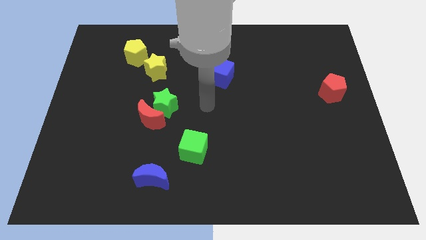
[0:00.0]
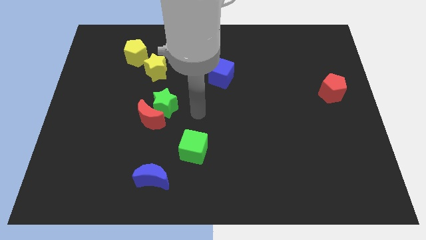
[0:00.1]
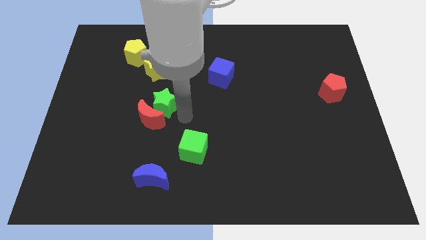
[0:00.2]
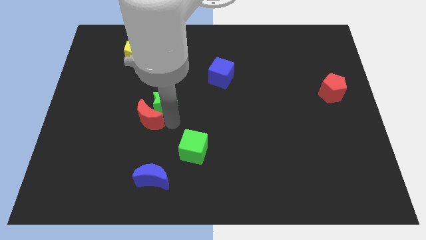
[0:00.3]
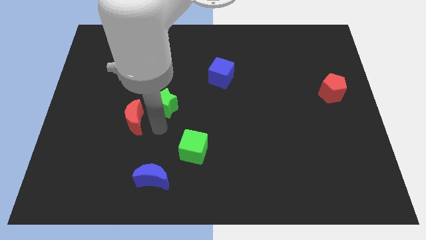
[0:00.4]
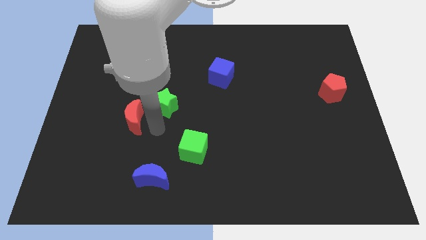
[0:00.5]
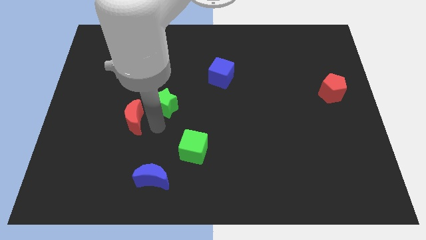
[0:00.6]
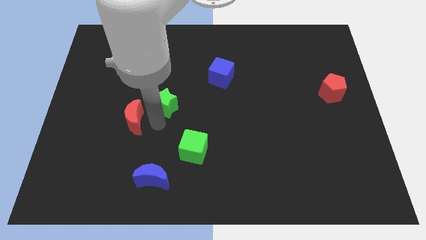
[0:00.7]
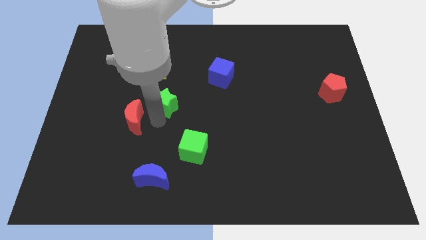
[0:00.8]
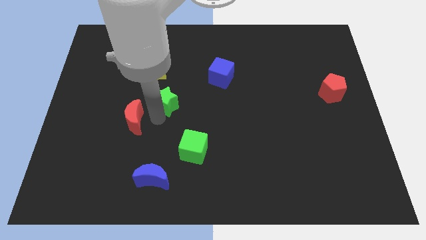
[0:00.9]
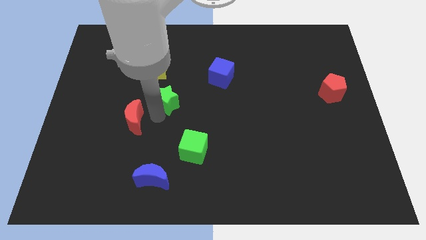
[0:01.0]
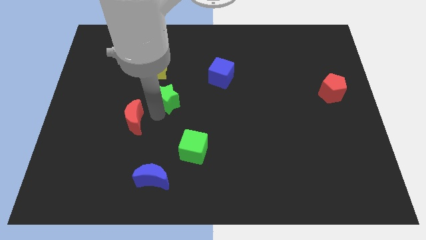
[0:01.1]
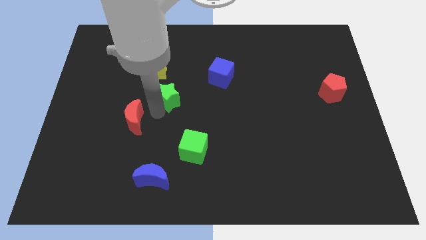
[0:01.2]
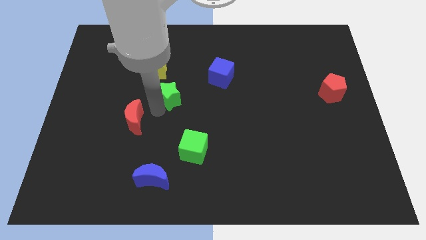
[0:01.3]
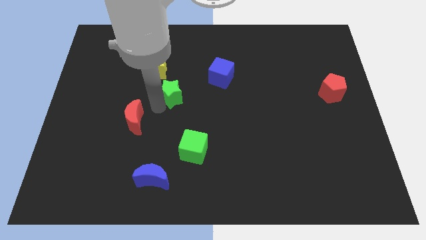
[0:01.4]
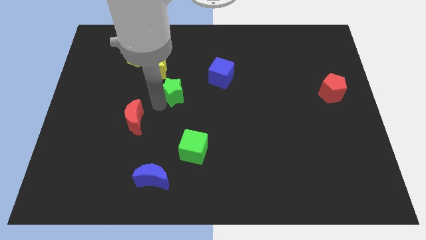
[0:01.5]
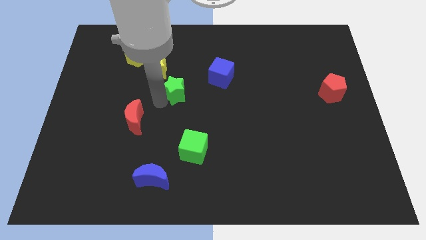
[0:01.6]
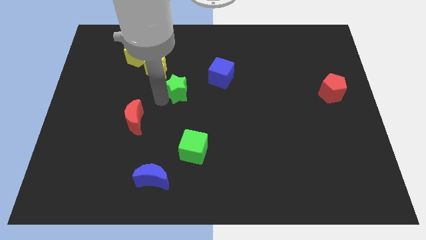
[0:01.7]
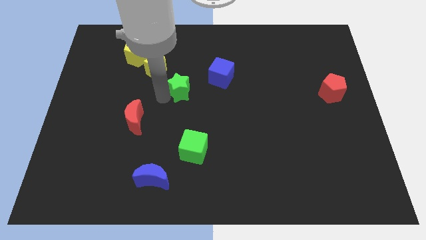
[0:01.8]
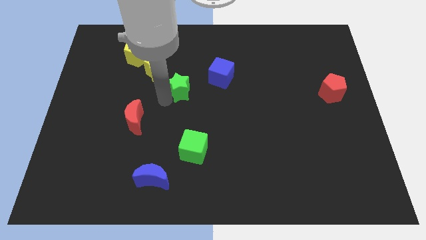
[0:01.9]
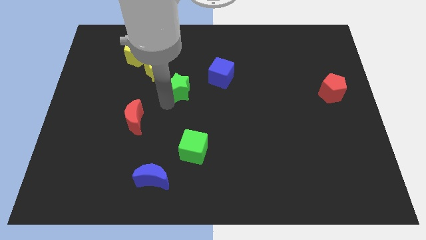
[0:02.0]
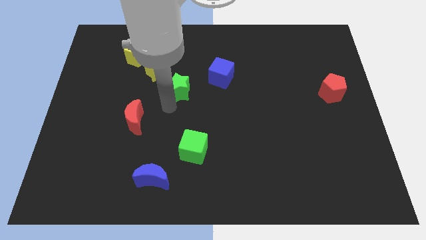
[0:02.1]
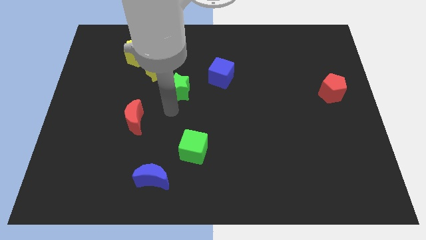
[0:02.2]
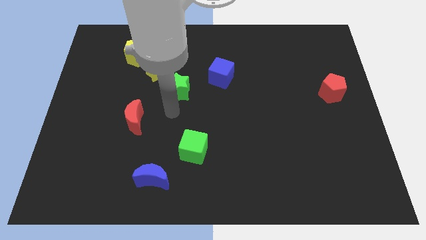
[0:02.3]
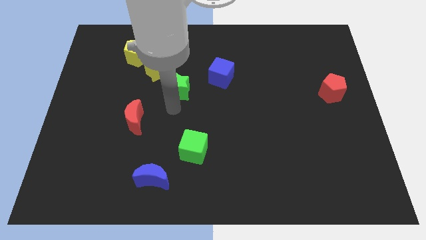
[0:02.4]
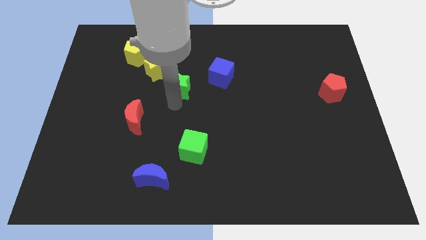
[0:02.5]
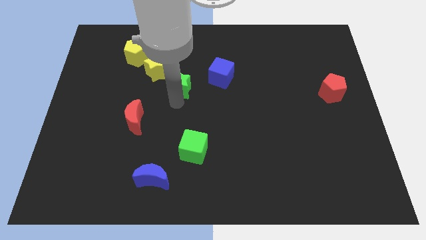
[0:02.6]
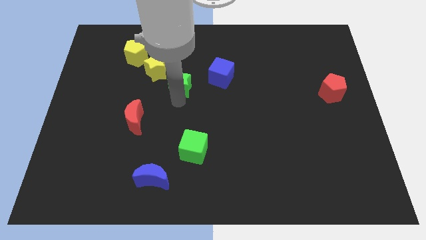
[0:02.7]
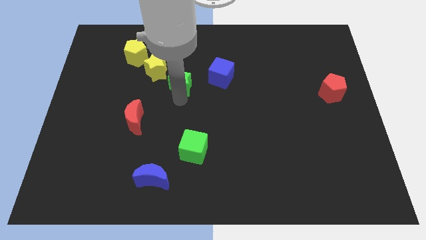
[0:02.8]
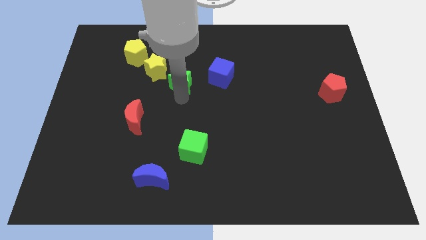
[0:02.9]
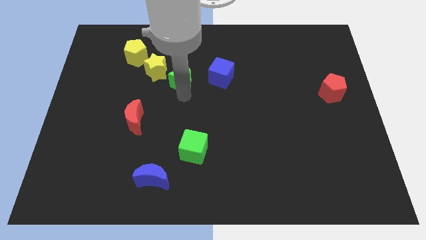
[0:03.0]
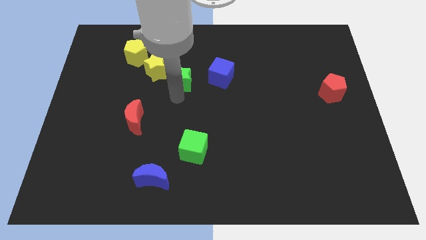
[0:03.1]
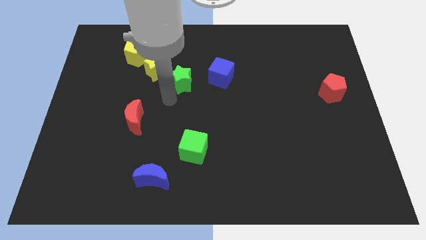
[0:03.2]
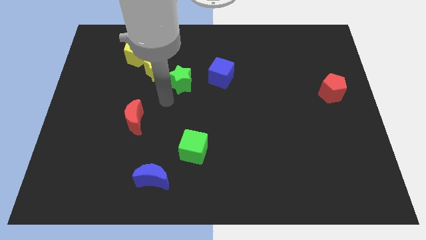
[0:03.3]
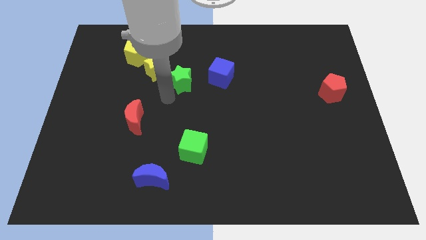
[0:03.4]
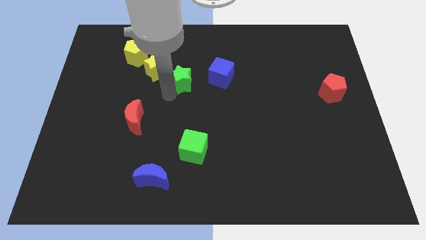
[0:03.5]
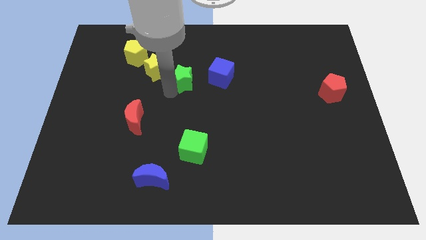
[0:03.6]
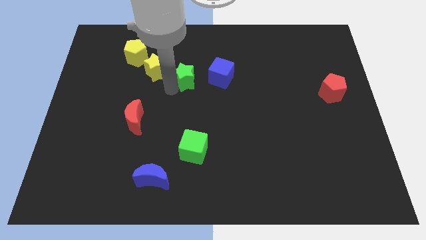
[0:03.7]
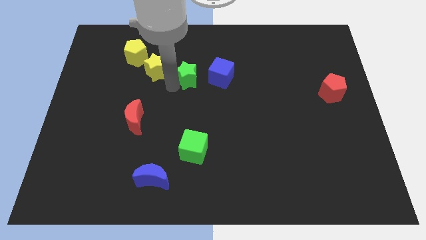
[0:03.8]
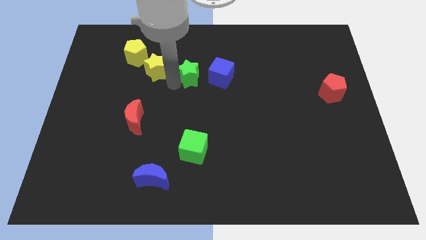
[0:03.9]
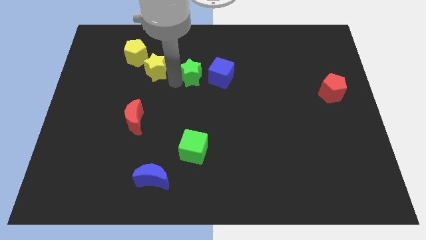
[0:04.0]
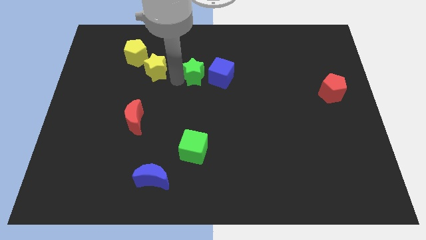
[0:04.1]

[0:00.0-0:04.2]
slide the green star to the top left side of the blue cube

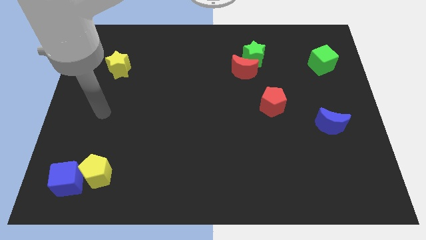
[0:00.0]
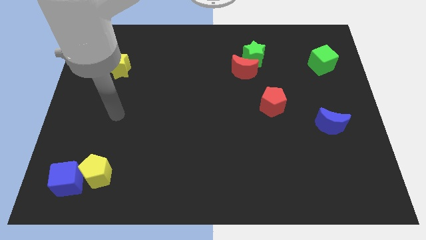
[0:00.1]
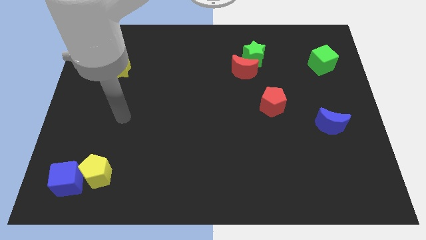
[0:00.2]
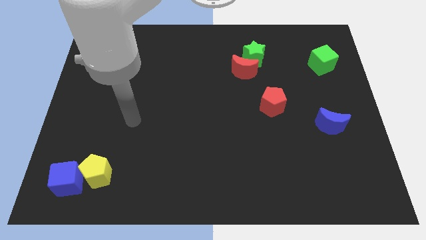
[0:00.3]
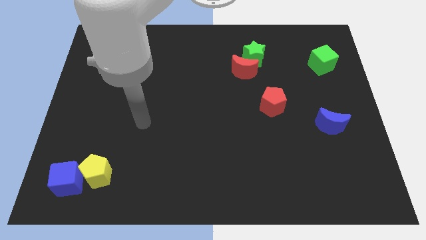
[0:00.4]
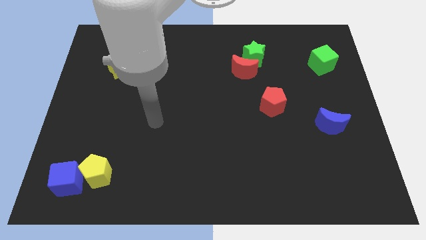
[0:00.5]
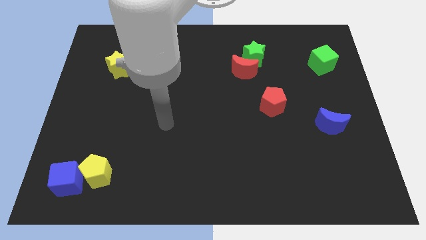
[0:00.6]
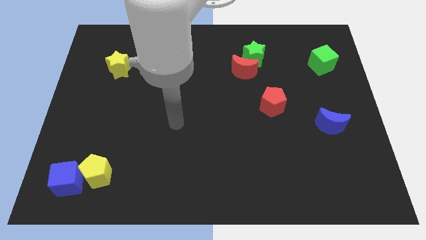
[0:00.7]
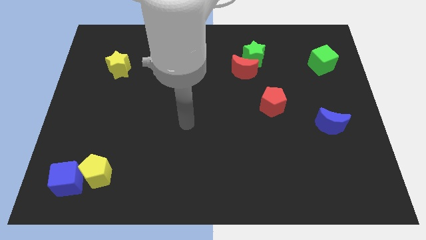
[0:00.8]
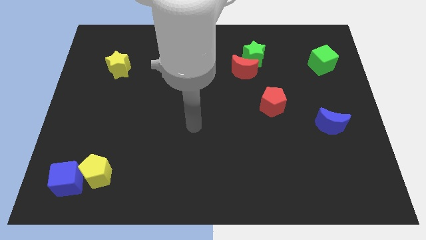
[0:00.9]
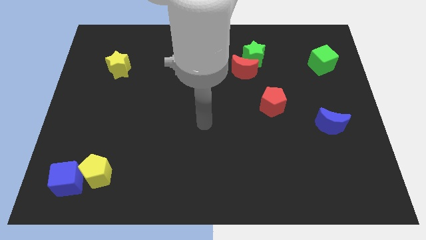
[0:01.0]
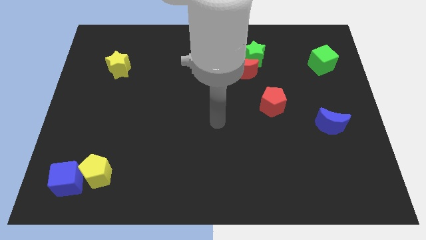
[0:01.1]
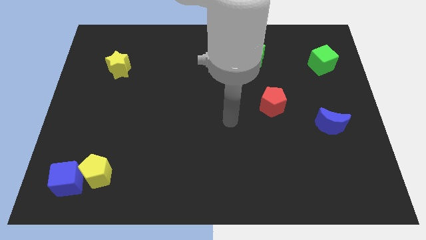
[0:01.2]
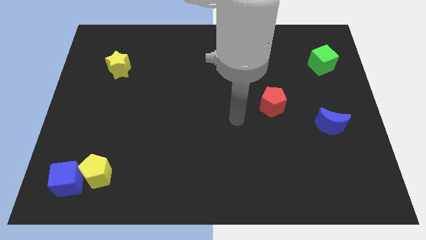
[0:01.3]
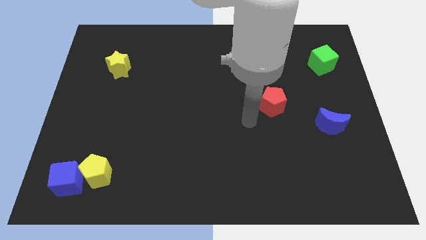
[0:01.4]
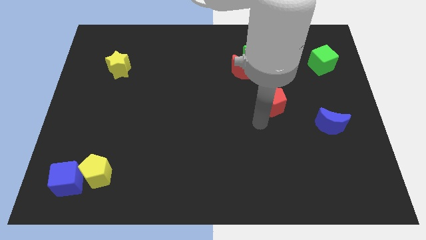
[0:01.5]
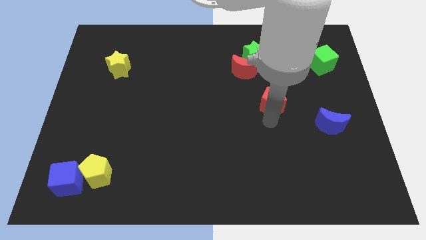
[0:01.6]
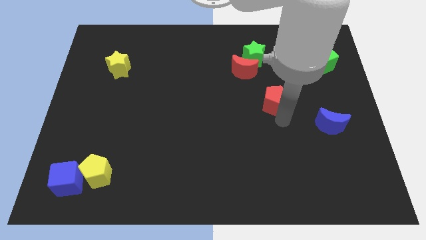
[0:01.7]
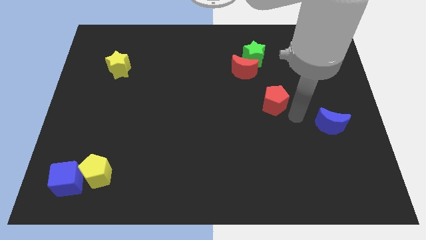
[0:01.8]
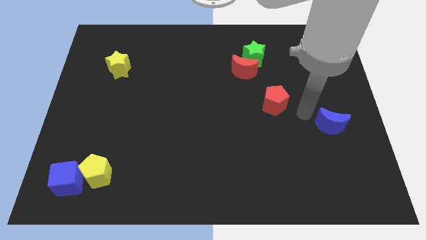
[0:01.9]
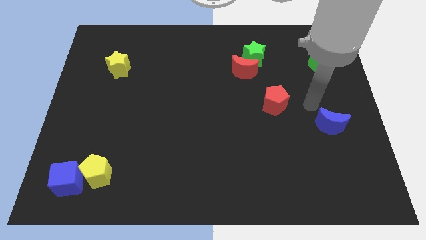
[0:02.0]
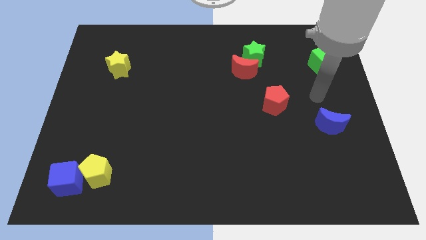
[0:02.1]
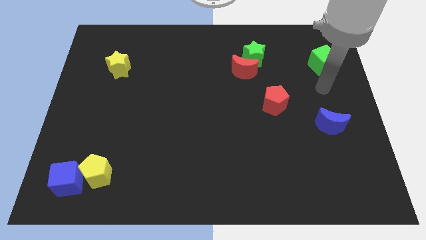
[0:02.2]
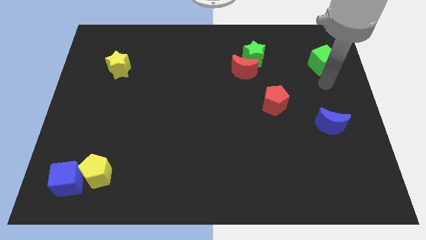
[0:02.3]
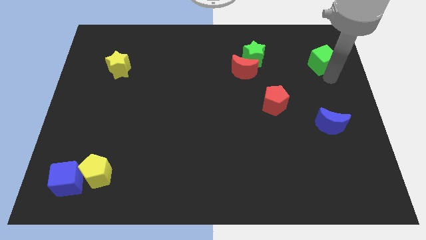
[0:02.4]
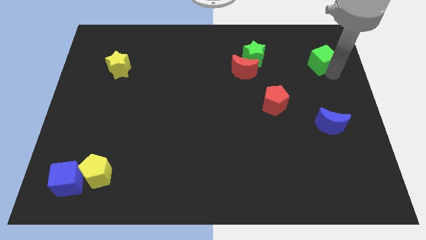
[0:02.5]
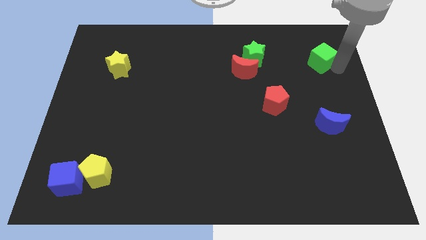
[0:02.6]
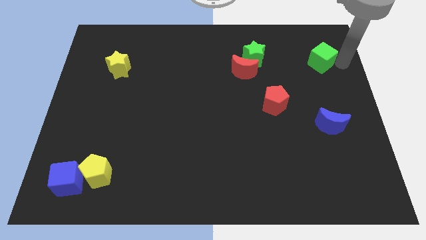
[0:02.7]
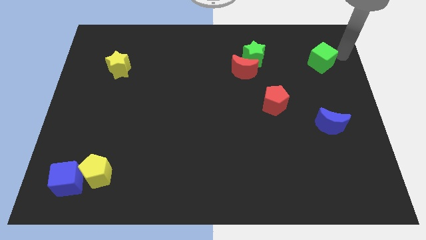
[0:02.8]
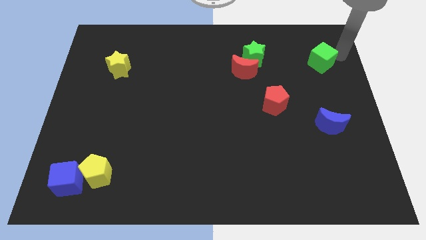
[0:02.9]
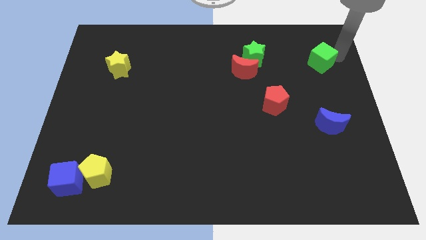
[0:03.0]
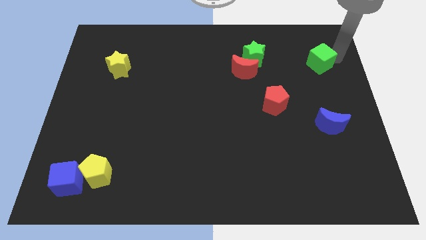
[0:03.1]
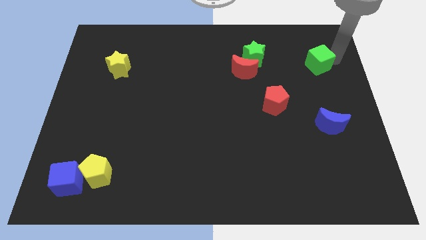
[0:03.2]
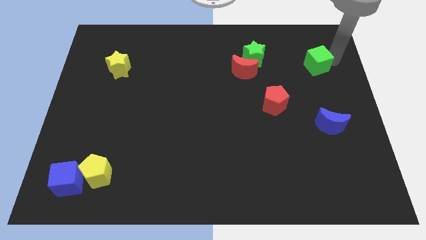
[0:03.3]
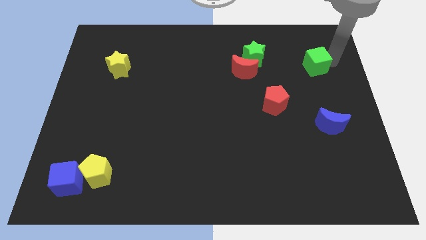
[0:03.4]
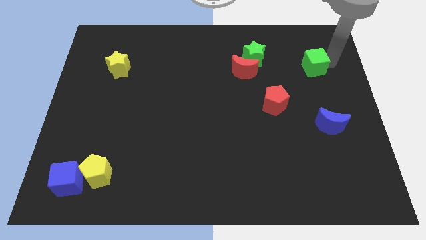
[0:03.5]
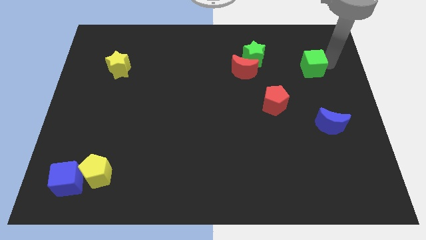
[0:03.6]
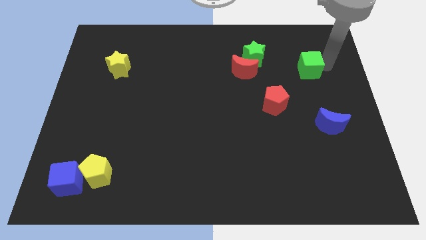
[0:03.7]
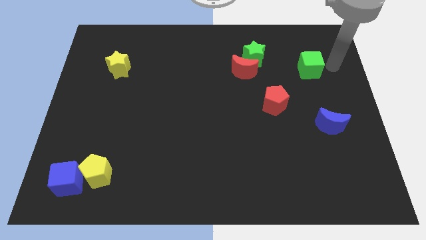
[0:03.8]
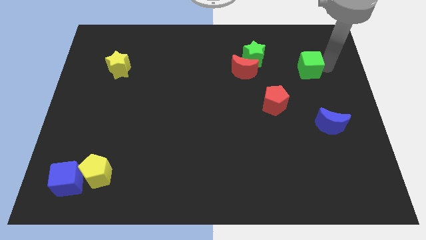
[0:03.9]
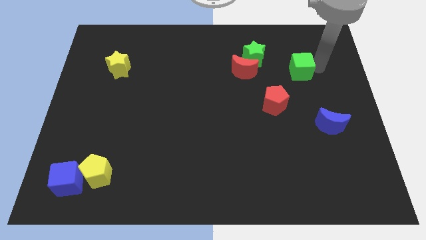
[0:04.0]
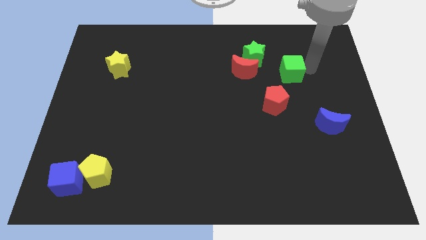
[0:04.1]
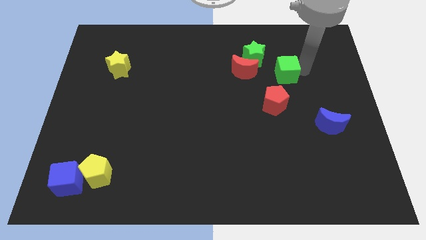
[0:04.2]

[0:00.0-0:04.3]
move the green cube to the top side of the red pentagon
